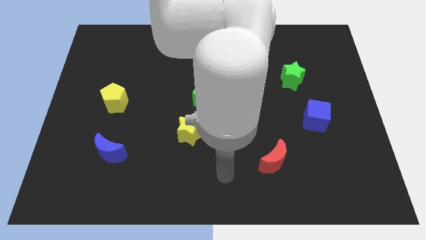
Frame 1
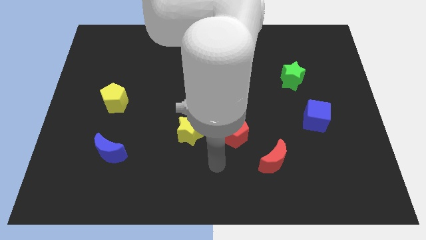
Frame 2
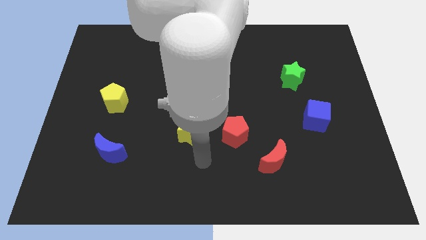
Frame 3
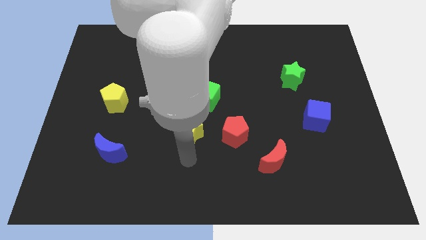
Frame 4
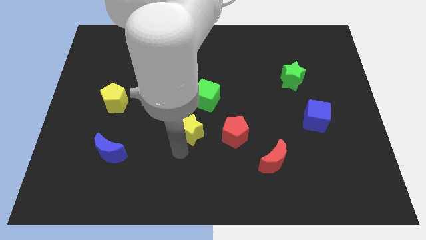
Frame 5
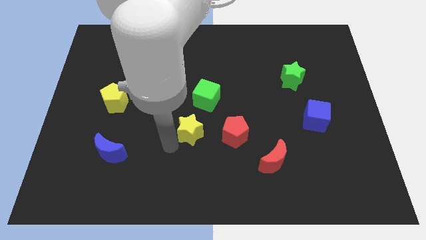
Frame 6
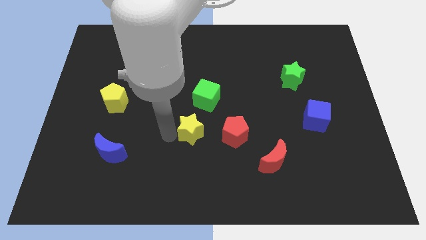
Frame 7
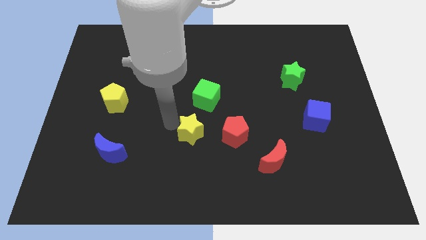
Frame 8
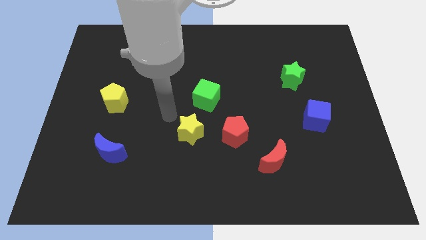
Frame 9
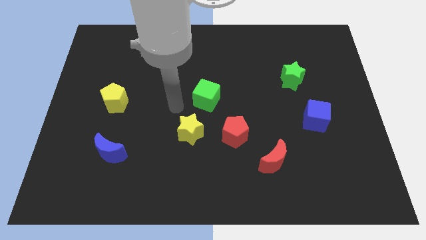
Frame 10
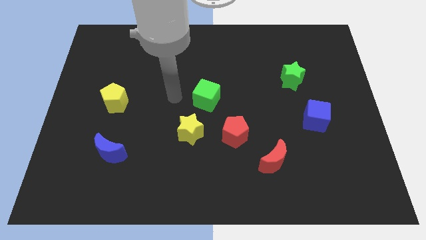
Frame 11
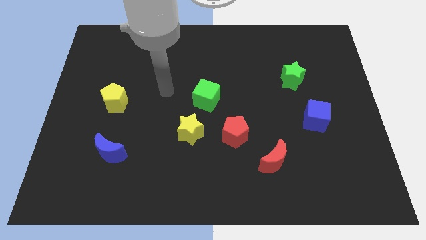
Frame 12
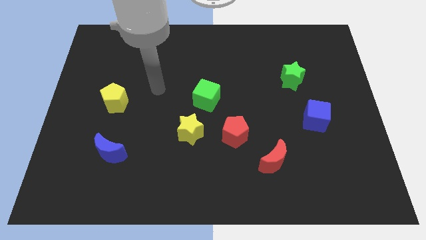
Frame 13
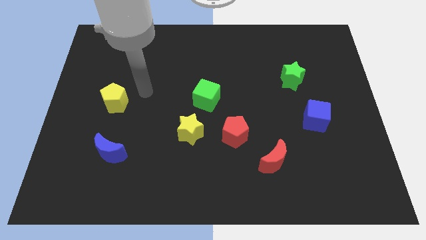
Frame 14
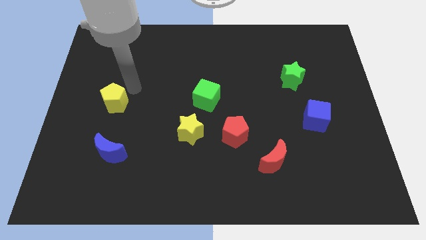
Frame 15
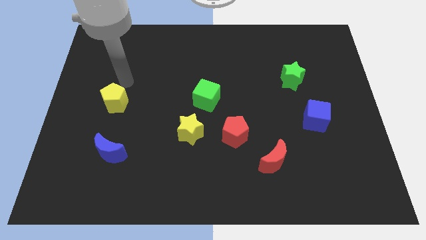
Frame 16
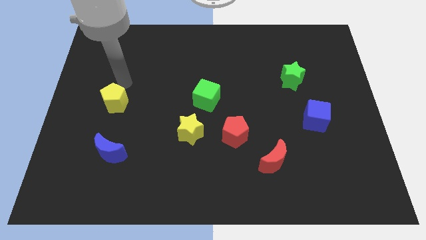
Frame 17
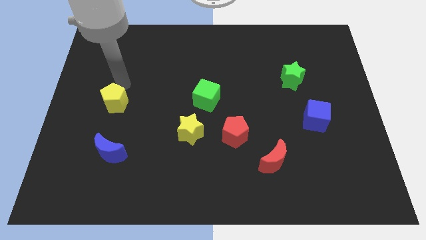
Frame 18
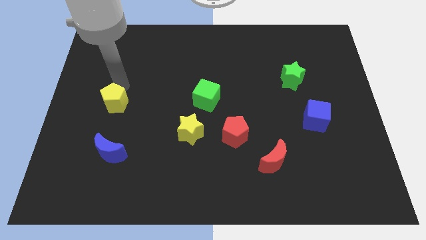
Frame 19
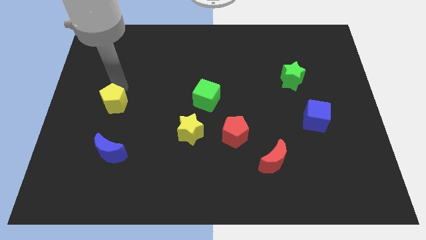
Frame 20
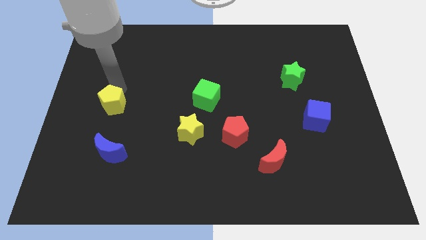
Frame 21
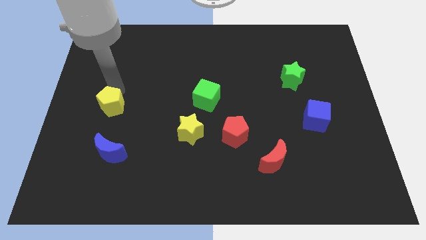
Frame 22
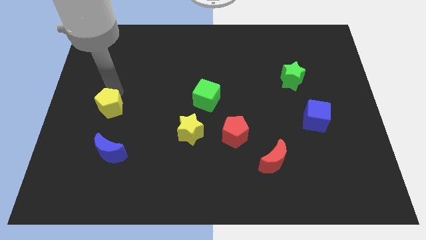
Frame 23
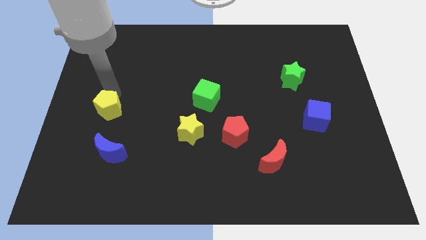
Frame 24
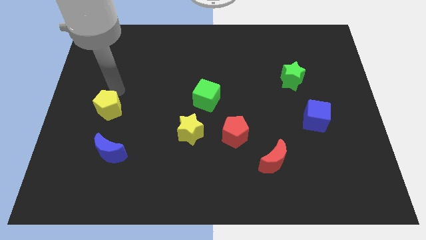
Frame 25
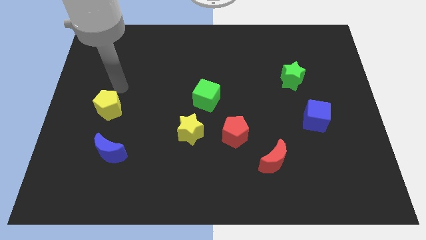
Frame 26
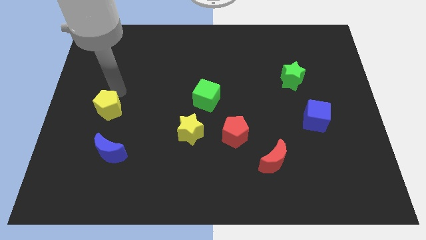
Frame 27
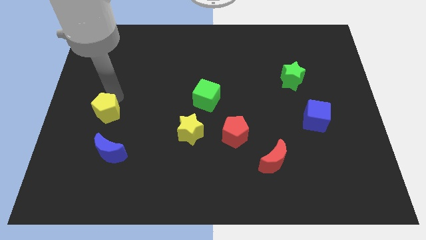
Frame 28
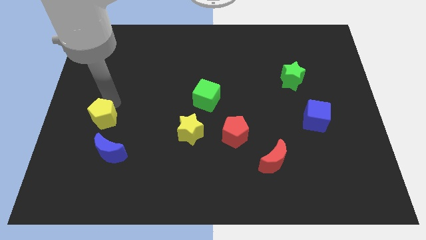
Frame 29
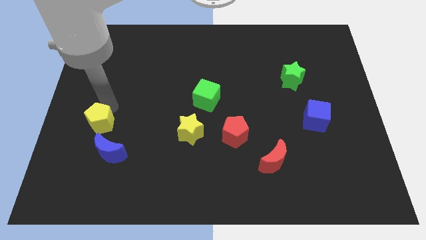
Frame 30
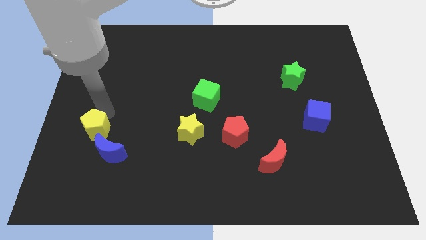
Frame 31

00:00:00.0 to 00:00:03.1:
push the yellow pentagon somewhat downwards

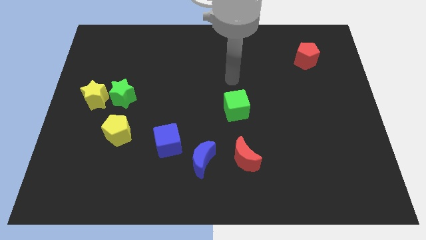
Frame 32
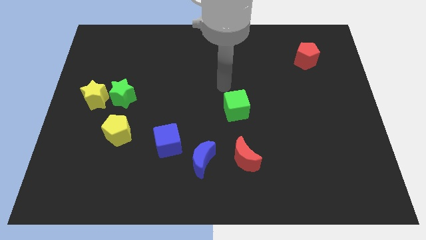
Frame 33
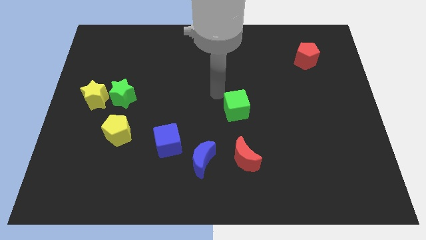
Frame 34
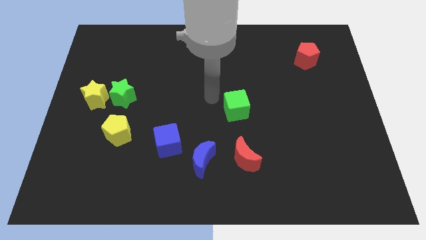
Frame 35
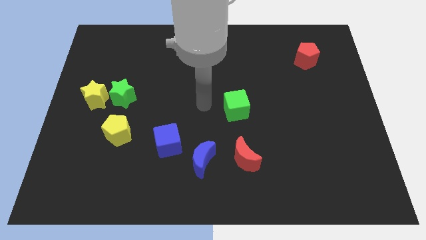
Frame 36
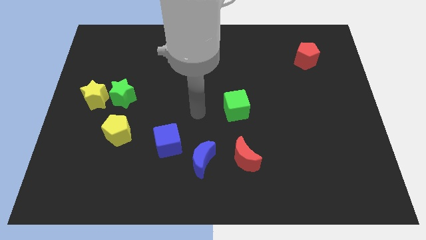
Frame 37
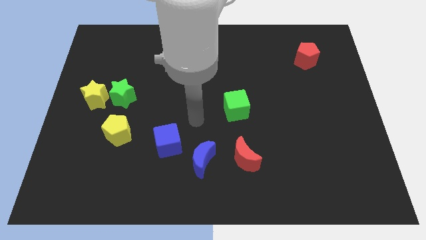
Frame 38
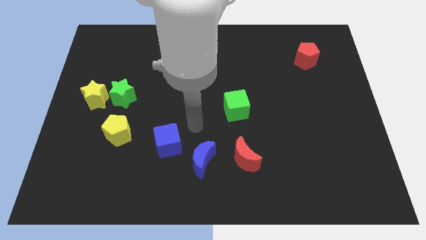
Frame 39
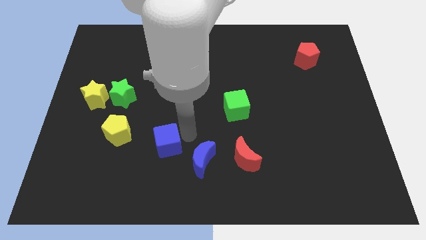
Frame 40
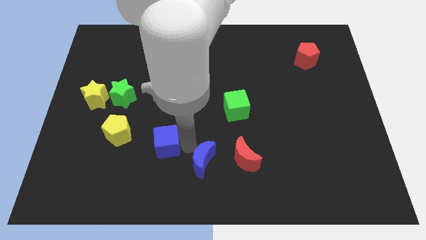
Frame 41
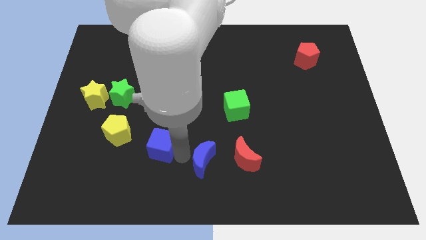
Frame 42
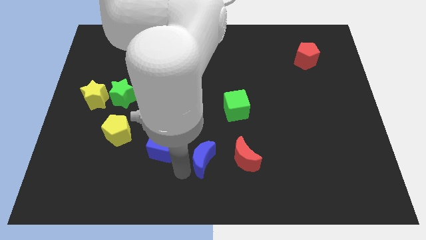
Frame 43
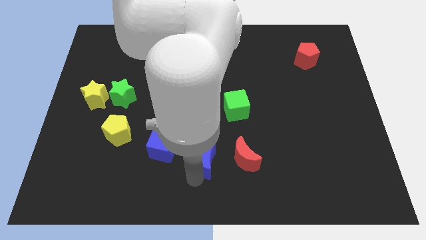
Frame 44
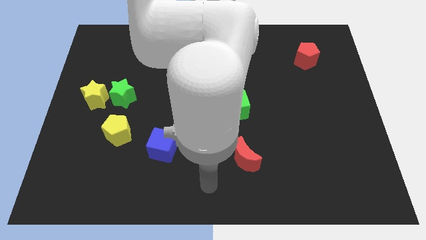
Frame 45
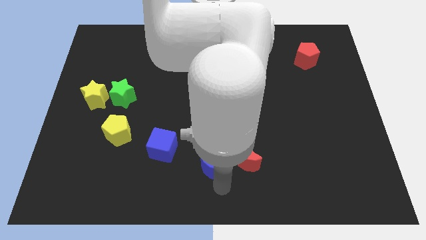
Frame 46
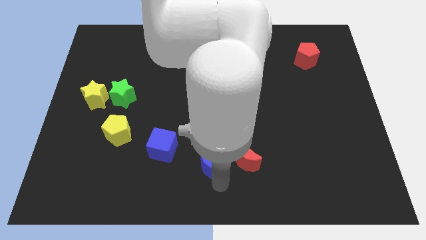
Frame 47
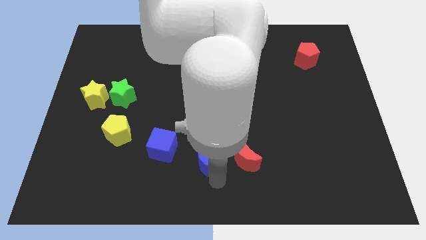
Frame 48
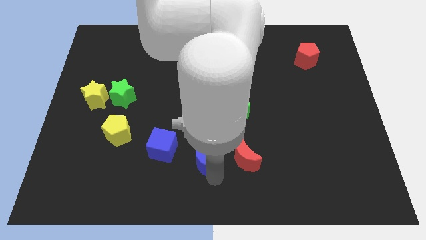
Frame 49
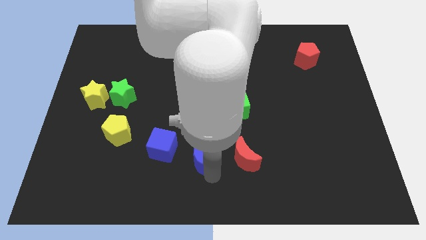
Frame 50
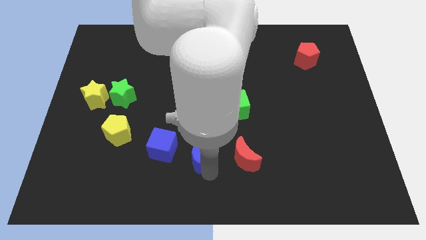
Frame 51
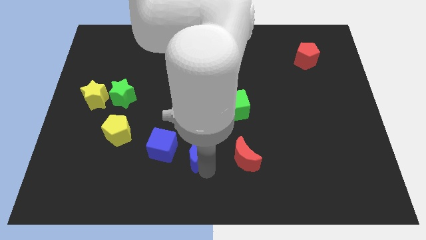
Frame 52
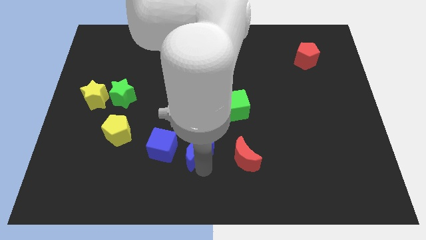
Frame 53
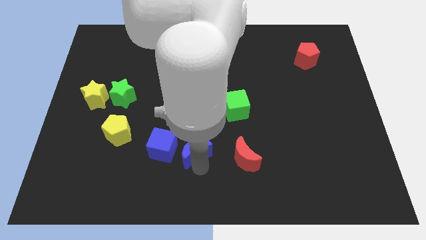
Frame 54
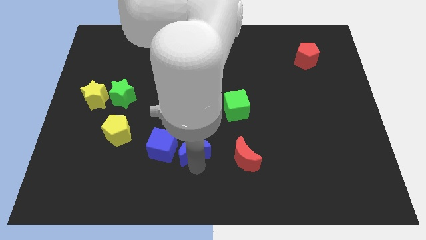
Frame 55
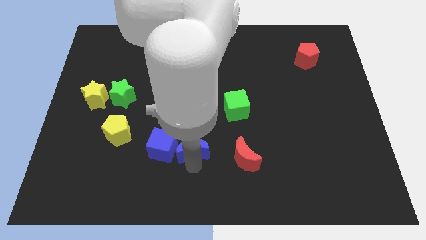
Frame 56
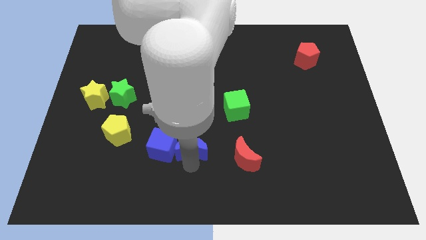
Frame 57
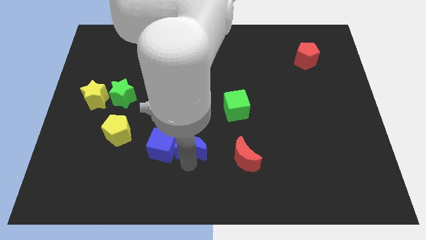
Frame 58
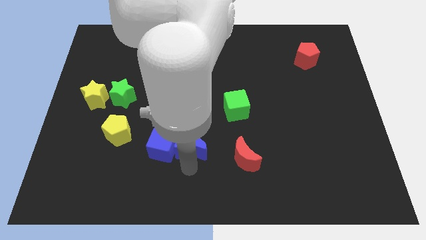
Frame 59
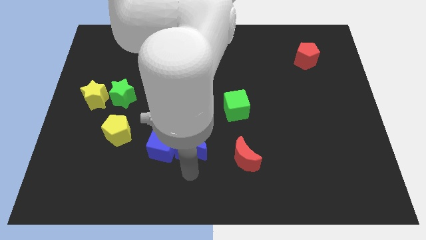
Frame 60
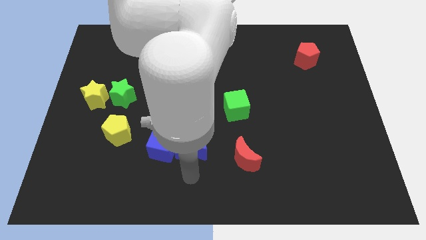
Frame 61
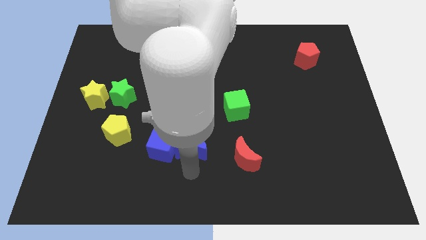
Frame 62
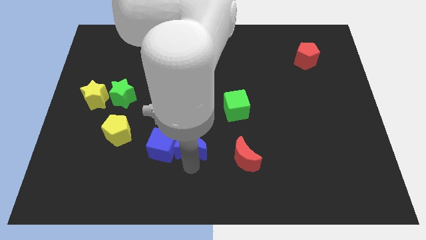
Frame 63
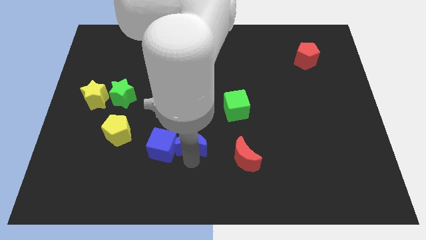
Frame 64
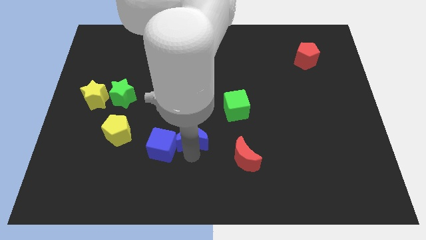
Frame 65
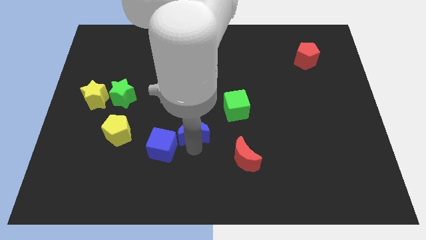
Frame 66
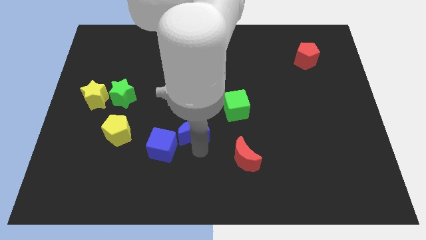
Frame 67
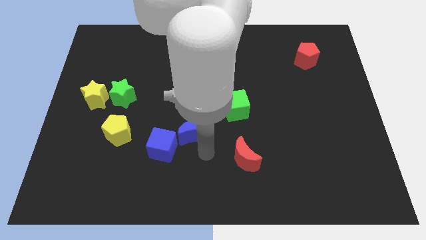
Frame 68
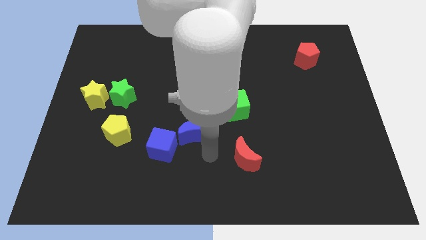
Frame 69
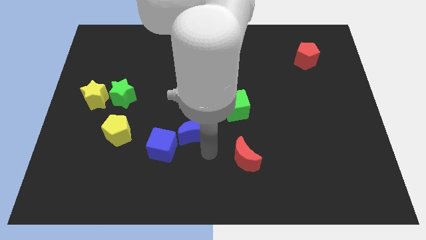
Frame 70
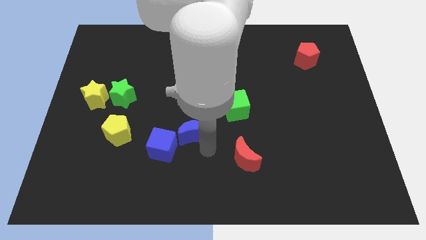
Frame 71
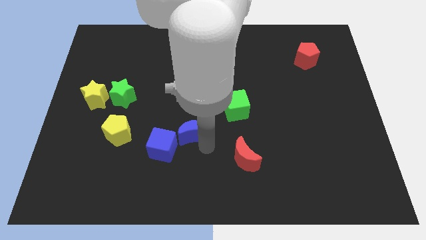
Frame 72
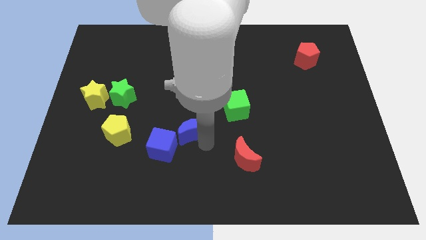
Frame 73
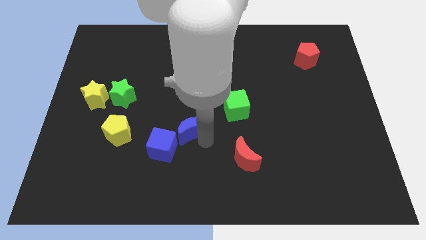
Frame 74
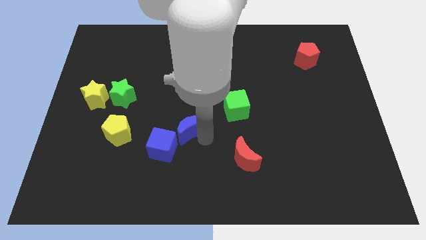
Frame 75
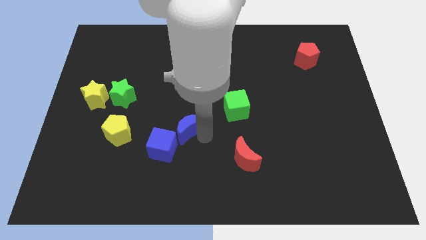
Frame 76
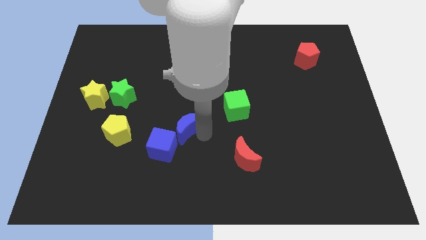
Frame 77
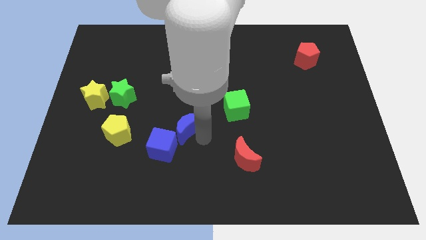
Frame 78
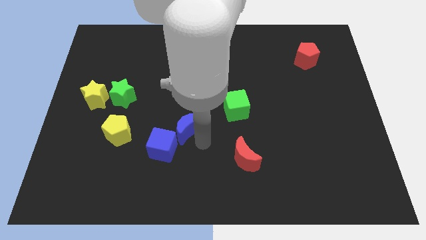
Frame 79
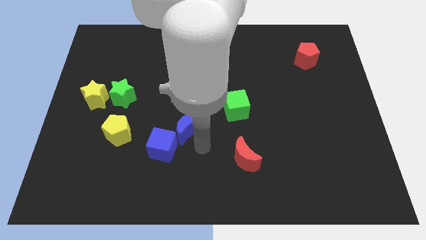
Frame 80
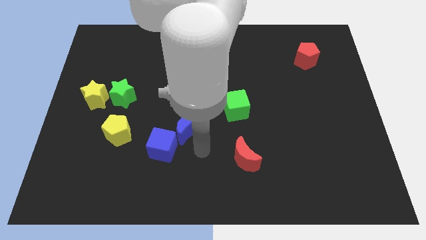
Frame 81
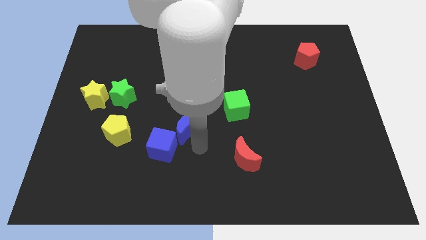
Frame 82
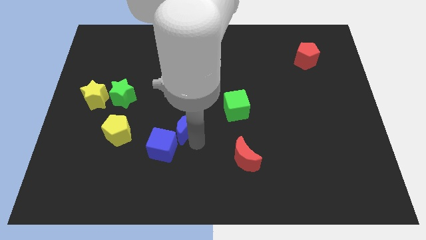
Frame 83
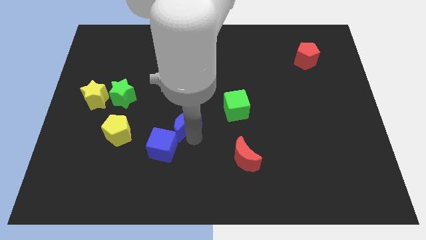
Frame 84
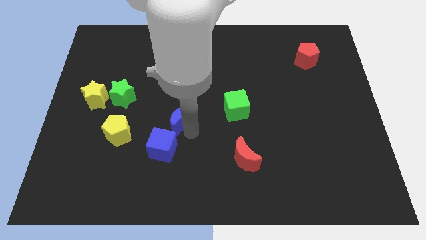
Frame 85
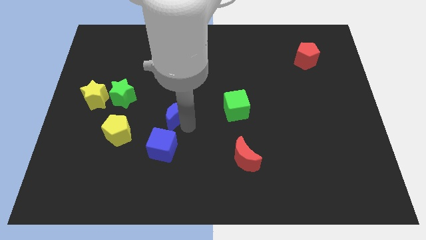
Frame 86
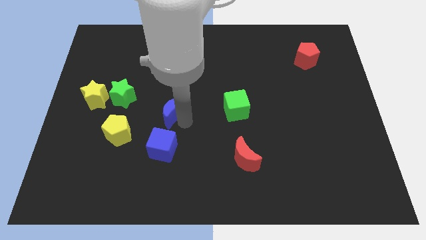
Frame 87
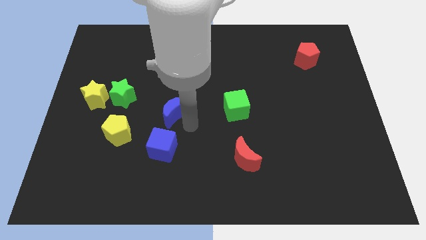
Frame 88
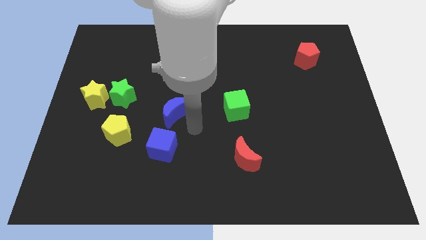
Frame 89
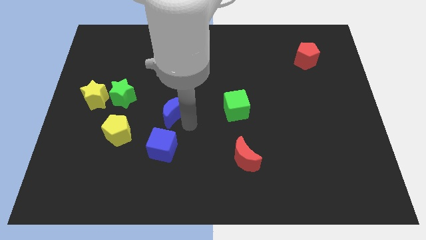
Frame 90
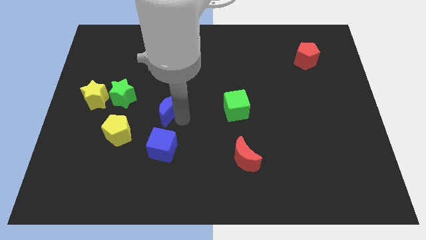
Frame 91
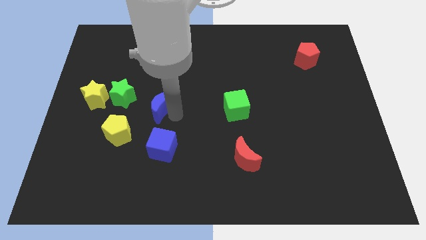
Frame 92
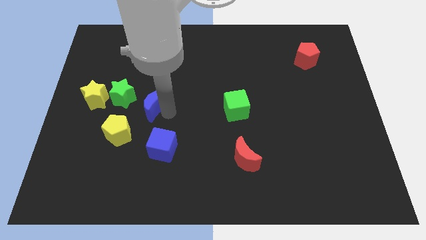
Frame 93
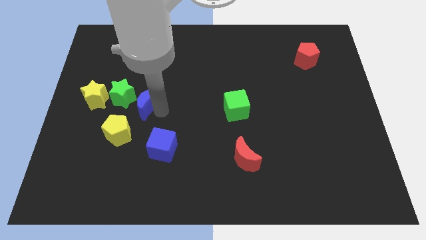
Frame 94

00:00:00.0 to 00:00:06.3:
push the blue moon upwards and then to the left
